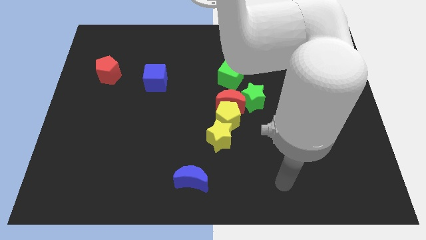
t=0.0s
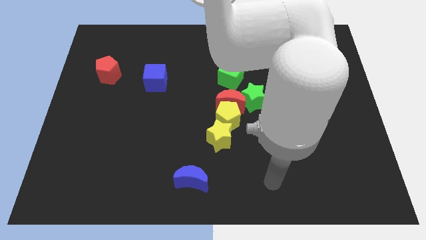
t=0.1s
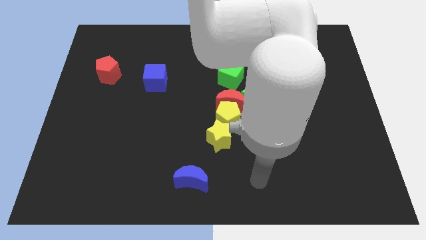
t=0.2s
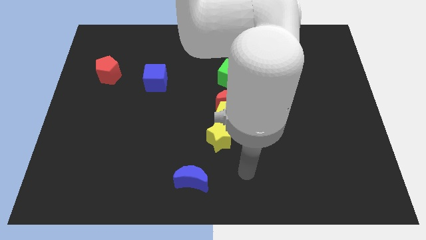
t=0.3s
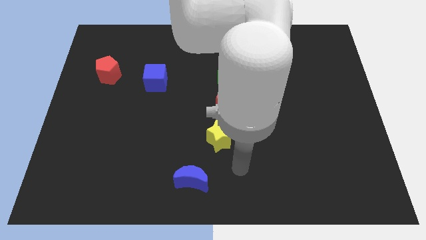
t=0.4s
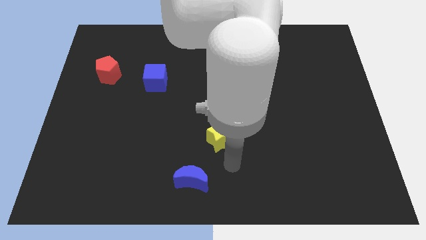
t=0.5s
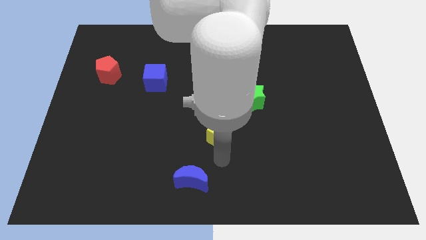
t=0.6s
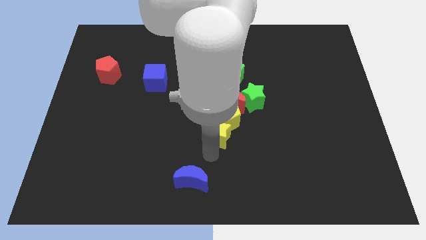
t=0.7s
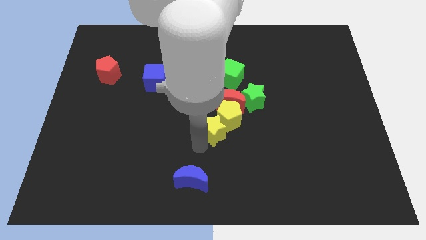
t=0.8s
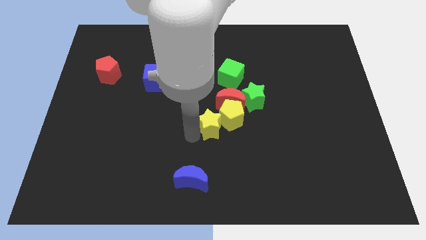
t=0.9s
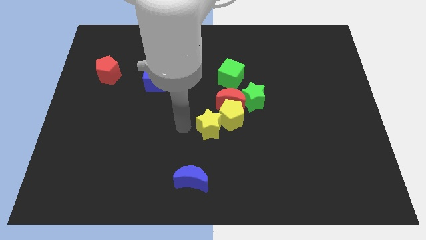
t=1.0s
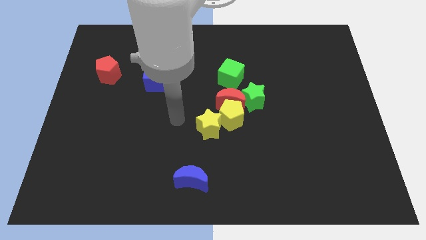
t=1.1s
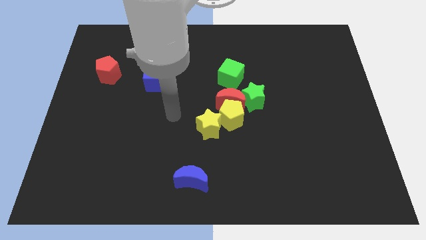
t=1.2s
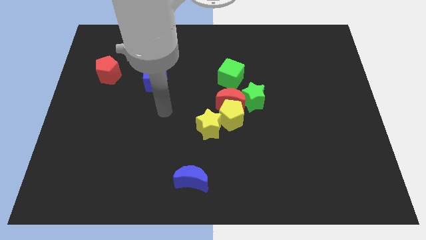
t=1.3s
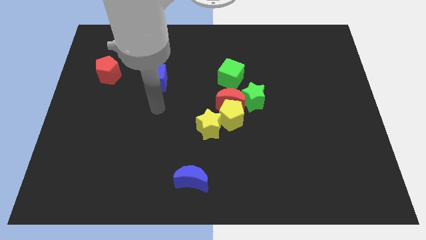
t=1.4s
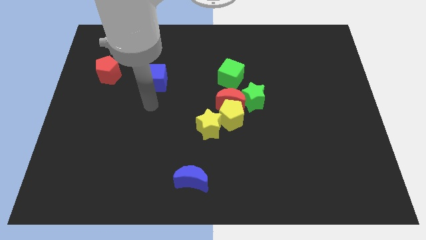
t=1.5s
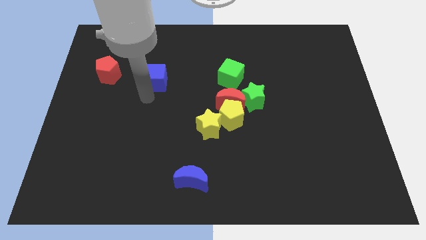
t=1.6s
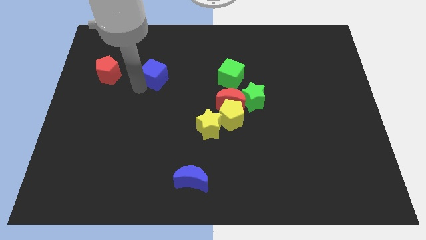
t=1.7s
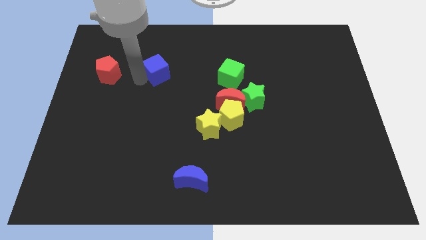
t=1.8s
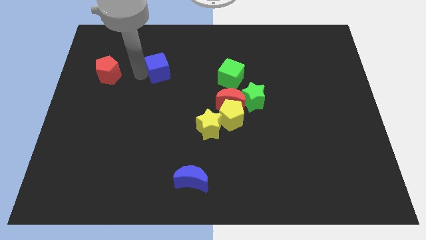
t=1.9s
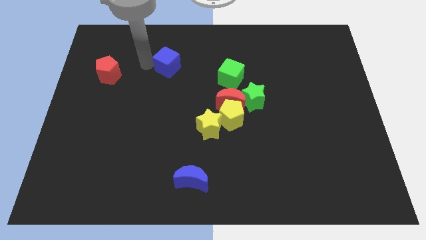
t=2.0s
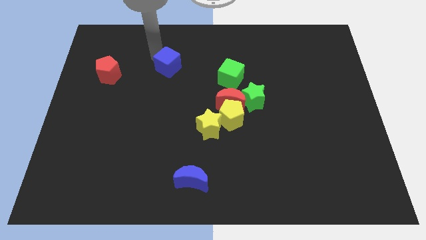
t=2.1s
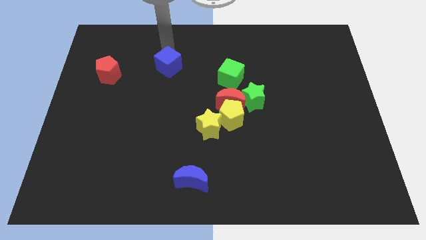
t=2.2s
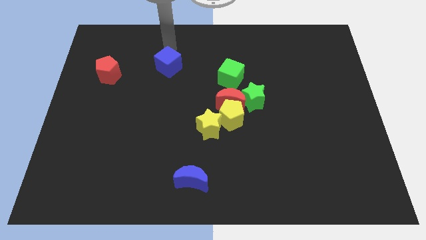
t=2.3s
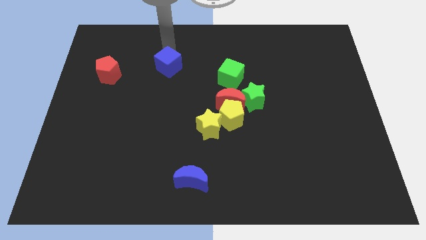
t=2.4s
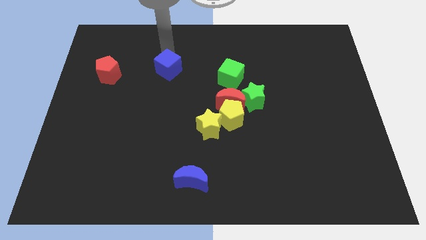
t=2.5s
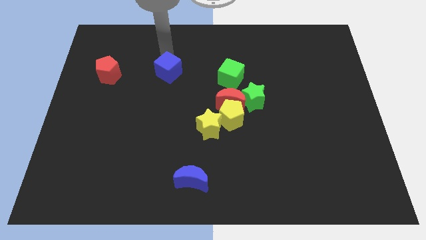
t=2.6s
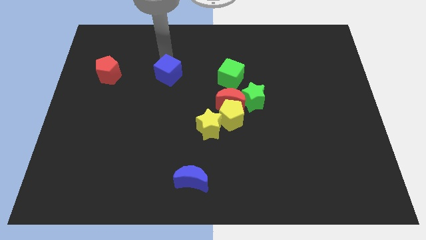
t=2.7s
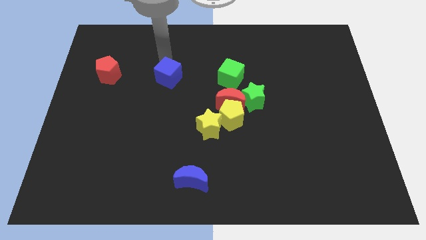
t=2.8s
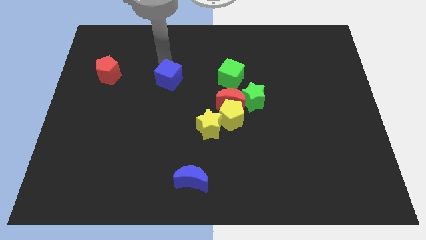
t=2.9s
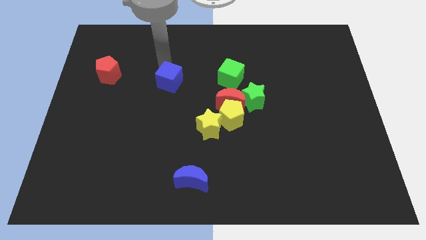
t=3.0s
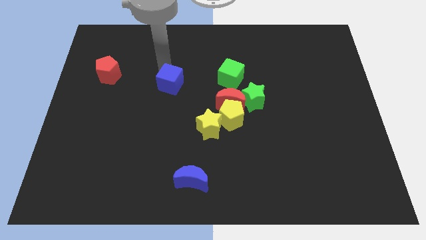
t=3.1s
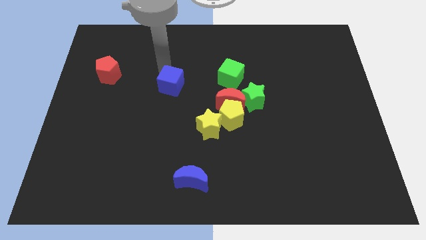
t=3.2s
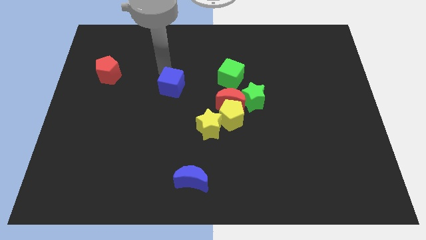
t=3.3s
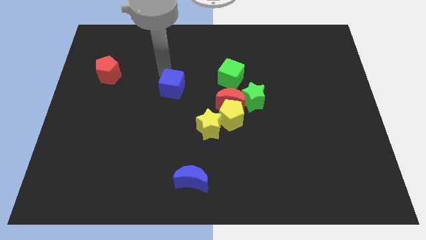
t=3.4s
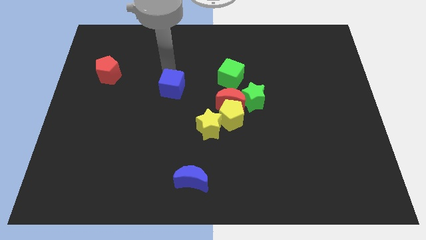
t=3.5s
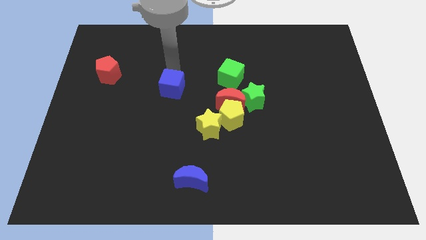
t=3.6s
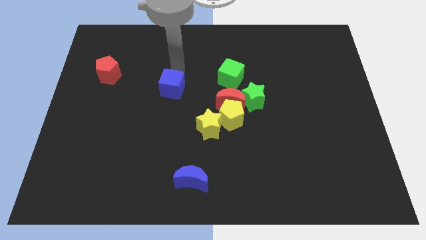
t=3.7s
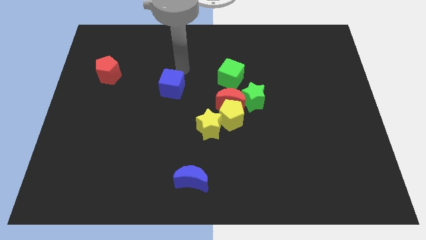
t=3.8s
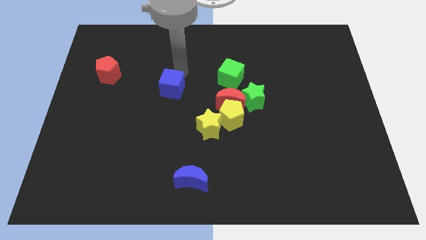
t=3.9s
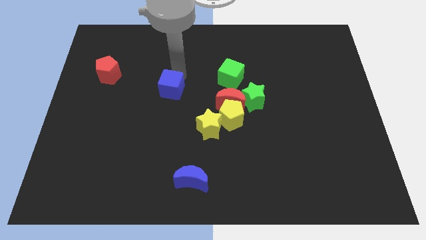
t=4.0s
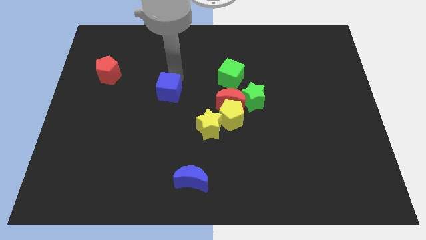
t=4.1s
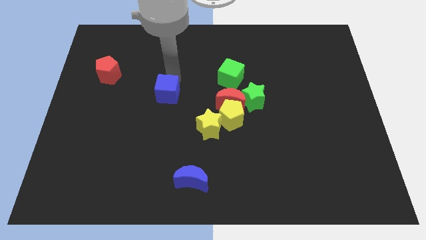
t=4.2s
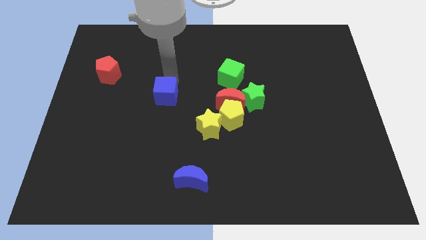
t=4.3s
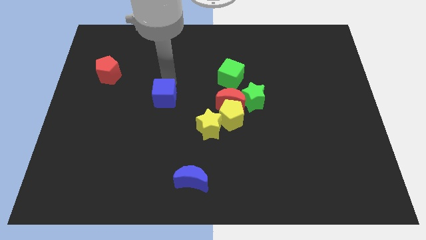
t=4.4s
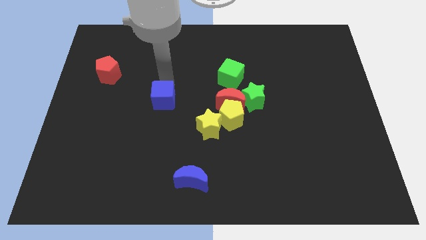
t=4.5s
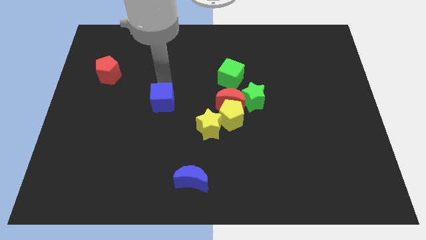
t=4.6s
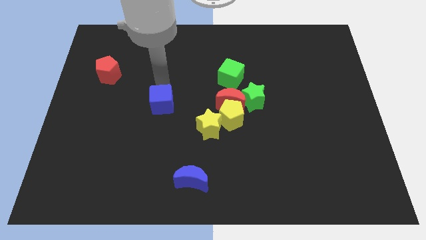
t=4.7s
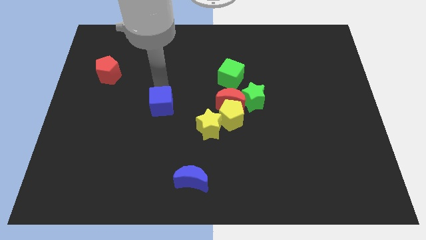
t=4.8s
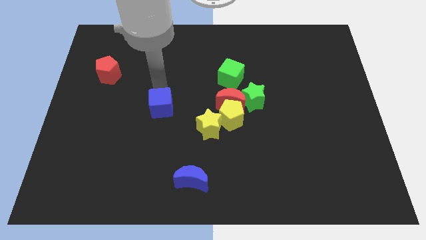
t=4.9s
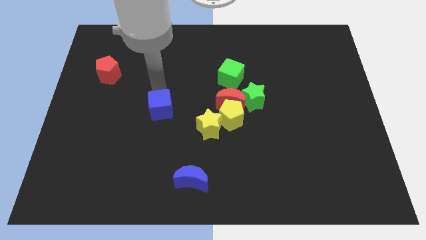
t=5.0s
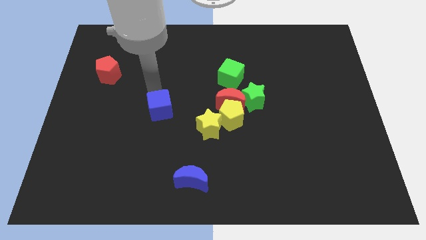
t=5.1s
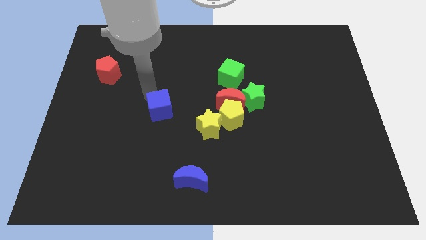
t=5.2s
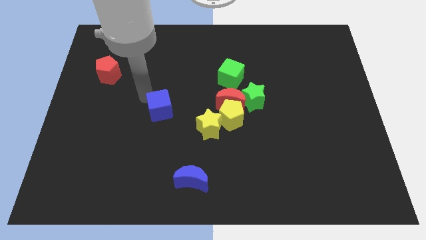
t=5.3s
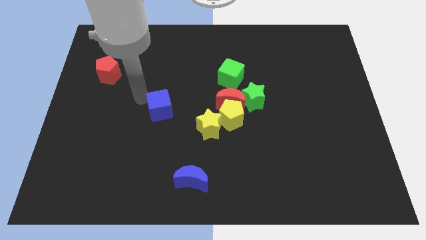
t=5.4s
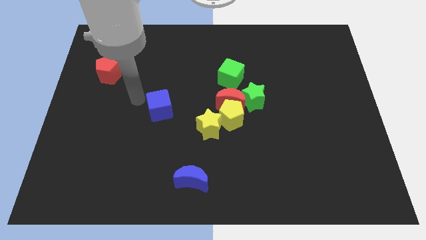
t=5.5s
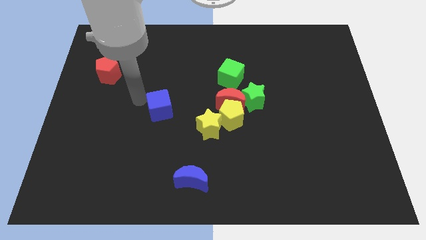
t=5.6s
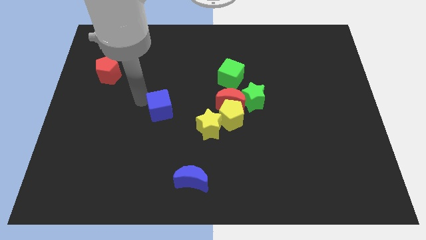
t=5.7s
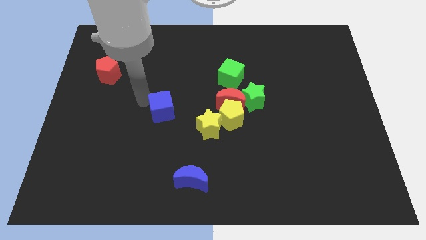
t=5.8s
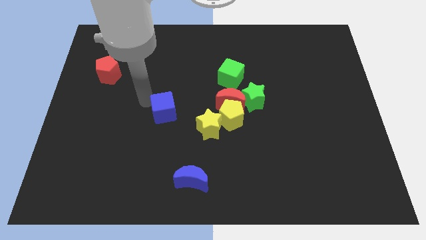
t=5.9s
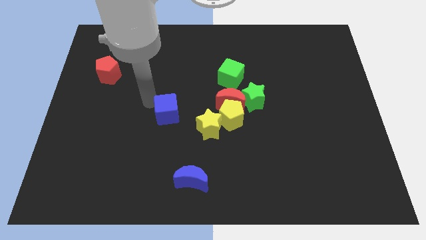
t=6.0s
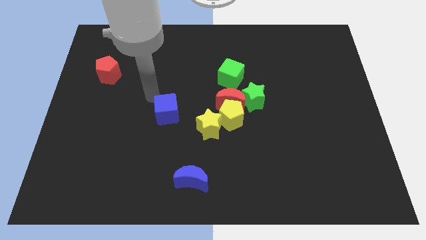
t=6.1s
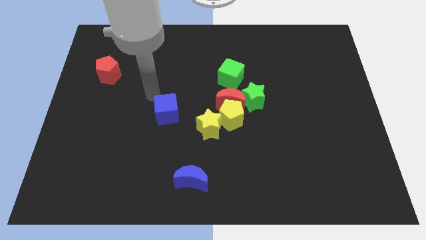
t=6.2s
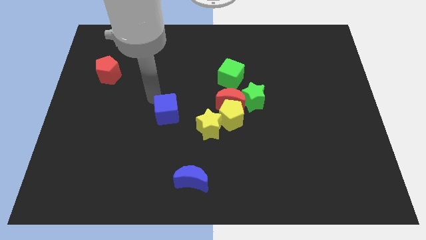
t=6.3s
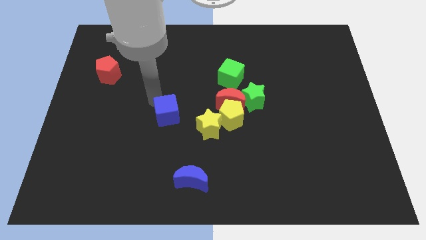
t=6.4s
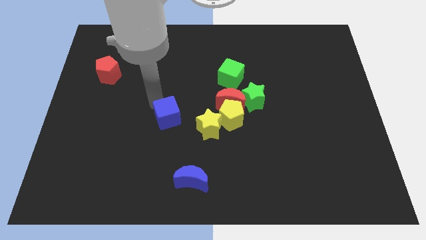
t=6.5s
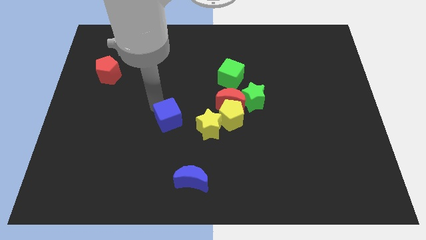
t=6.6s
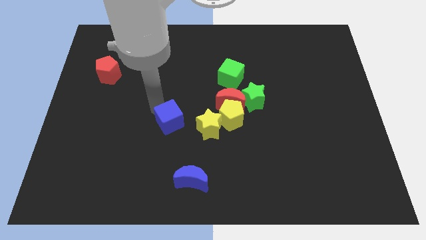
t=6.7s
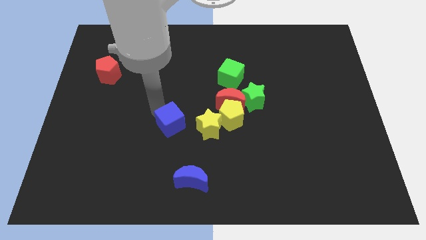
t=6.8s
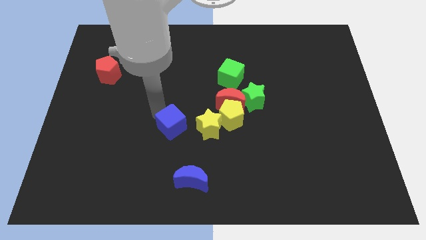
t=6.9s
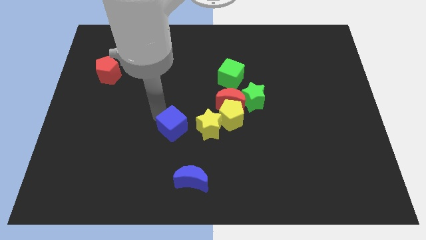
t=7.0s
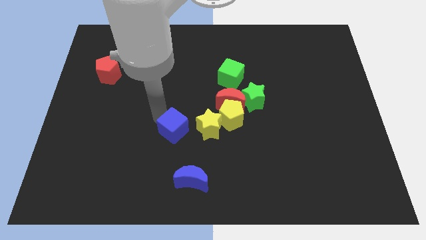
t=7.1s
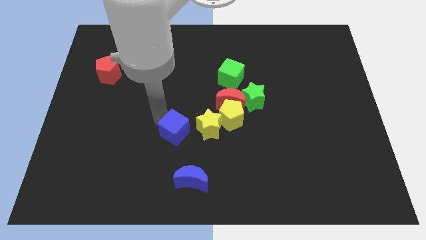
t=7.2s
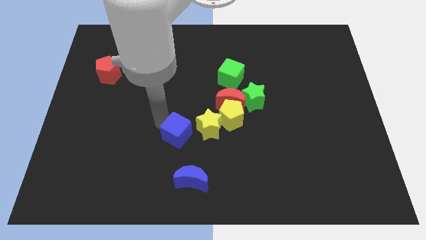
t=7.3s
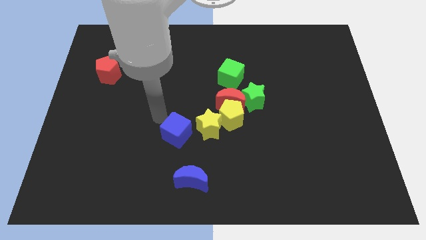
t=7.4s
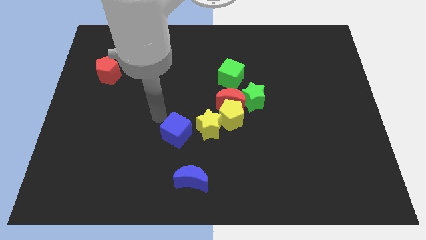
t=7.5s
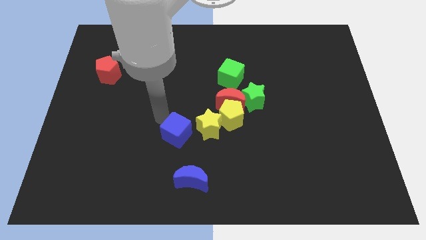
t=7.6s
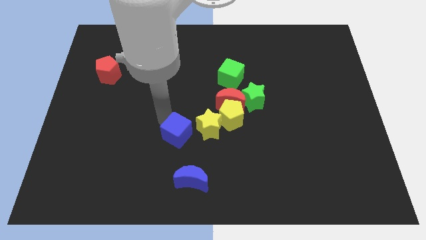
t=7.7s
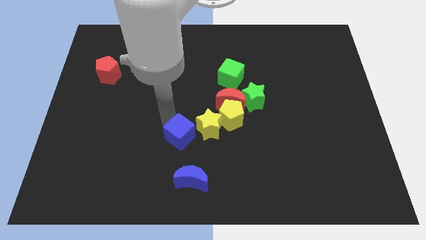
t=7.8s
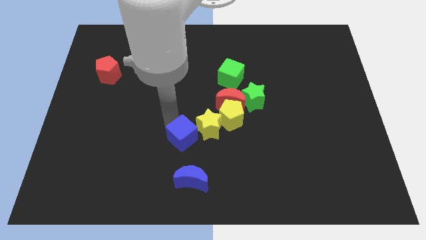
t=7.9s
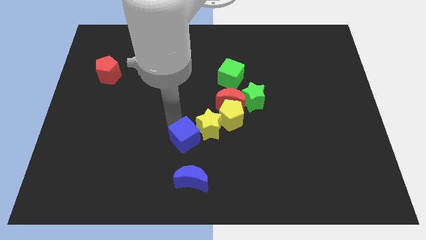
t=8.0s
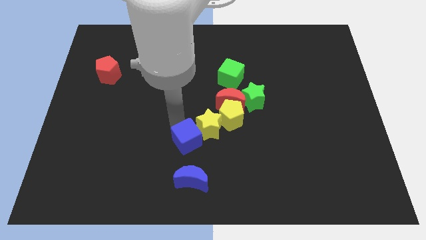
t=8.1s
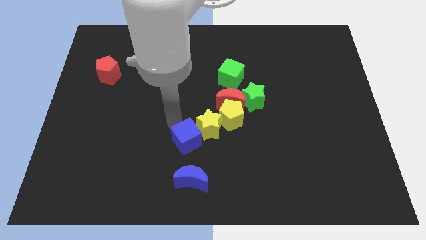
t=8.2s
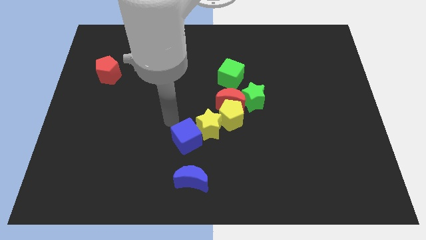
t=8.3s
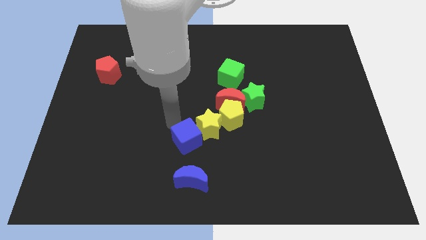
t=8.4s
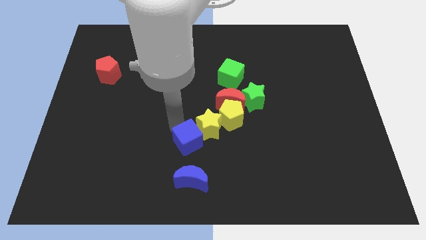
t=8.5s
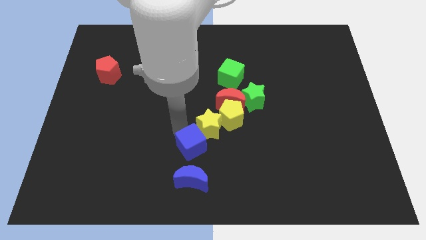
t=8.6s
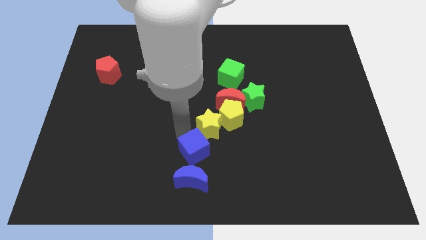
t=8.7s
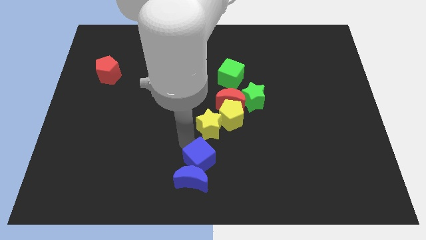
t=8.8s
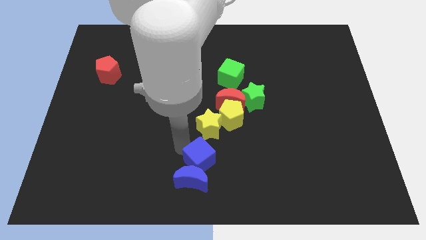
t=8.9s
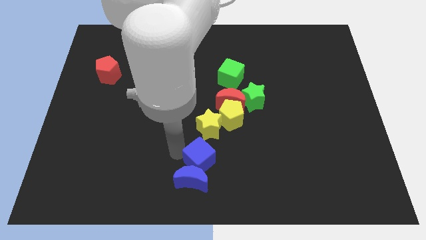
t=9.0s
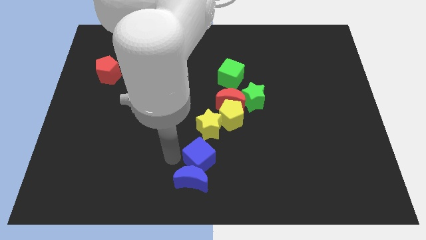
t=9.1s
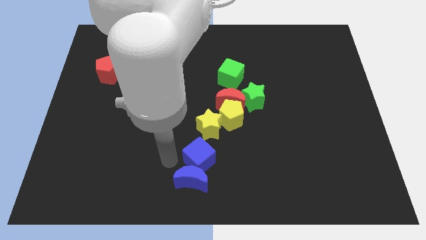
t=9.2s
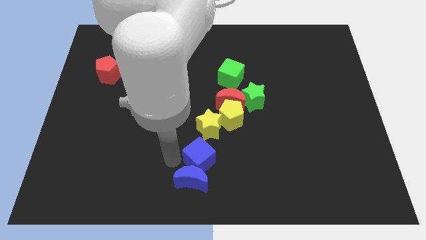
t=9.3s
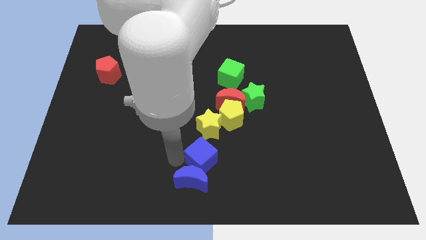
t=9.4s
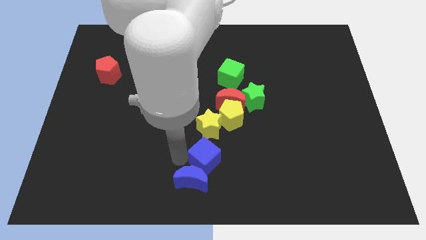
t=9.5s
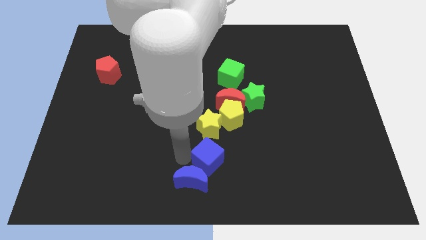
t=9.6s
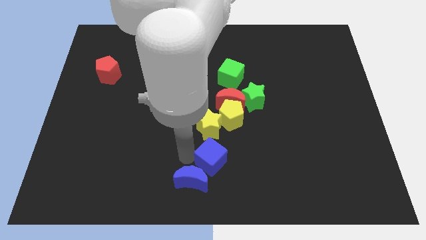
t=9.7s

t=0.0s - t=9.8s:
put the blue cube to the bottom of the yellow pentagon
